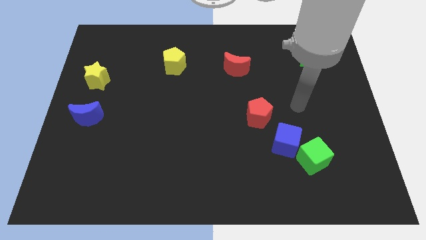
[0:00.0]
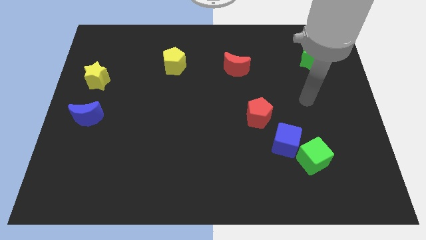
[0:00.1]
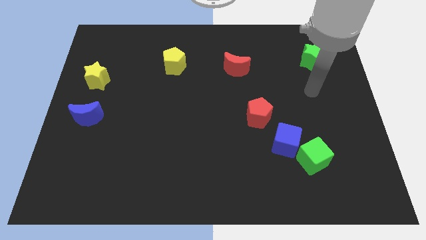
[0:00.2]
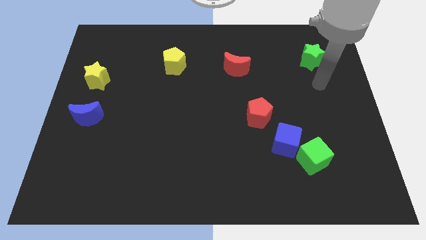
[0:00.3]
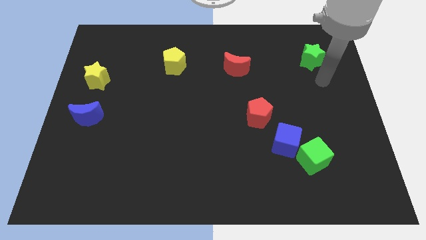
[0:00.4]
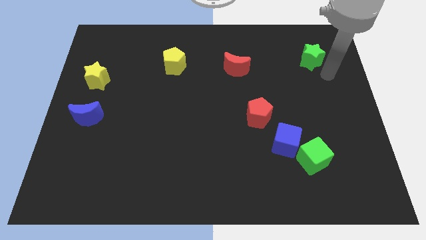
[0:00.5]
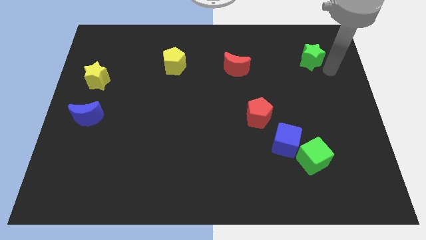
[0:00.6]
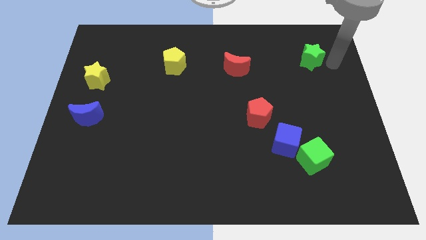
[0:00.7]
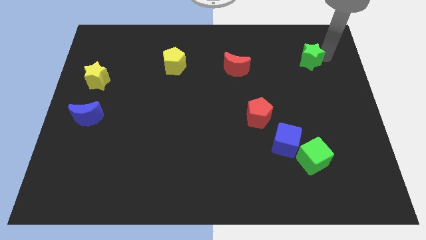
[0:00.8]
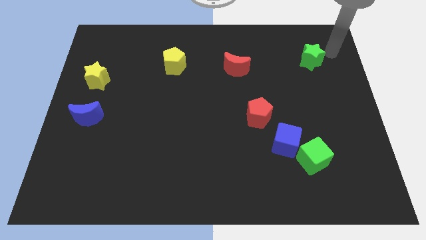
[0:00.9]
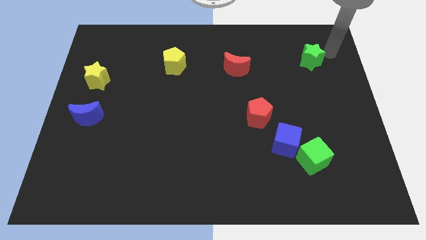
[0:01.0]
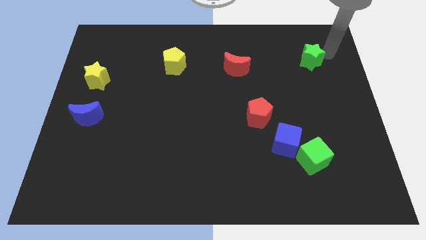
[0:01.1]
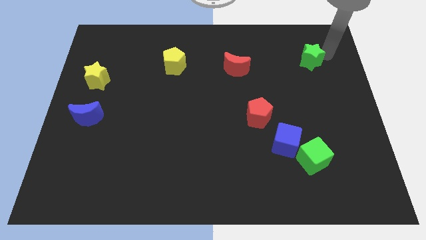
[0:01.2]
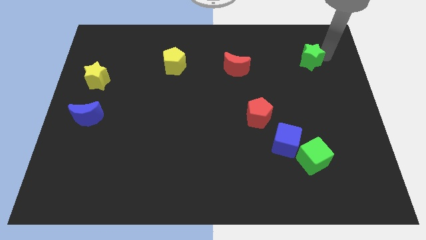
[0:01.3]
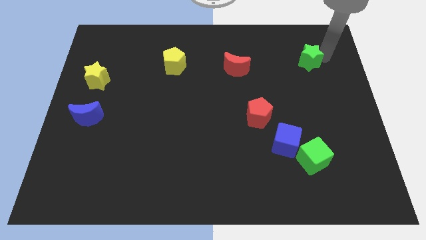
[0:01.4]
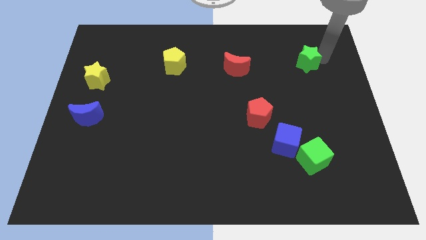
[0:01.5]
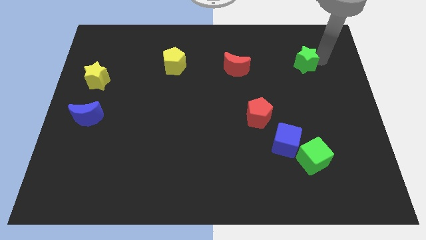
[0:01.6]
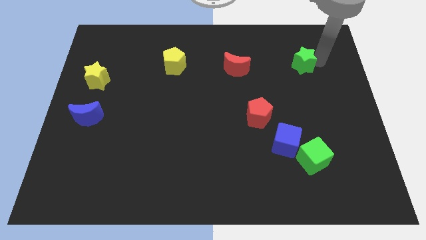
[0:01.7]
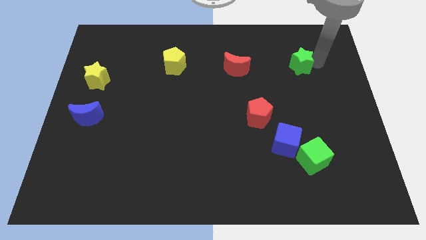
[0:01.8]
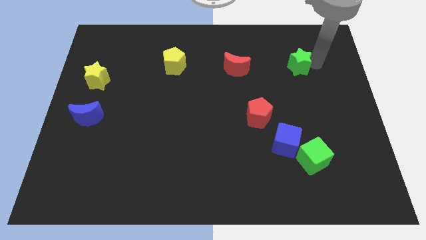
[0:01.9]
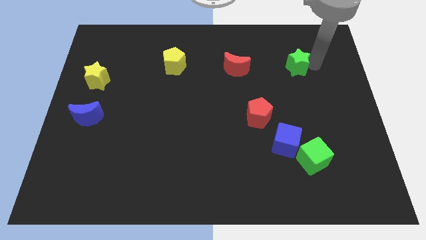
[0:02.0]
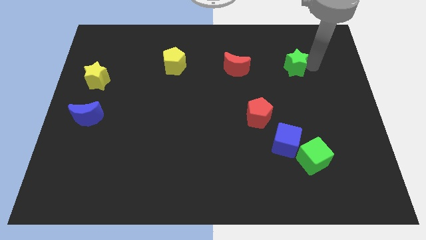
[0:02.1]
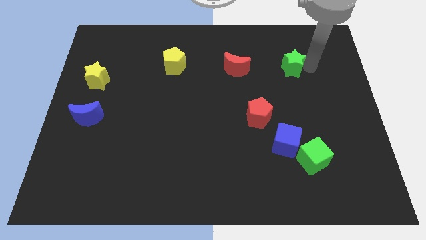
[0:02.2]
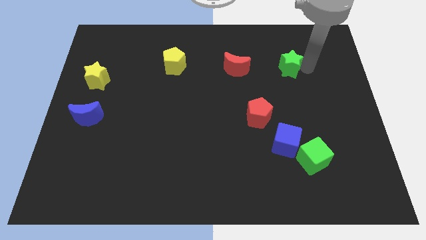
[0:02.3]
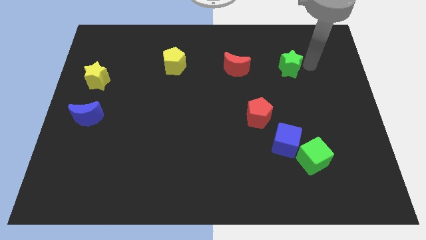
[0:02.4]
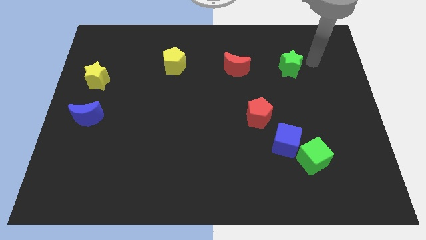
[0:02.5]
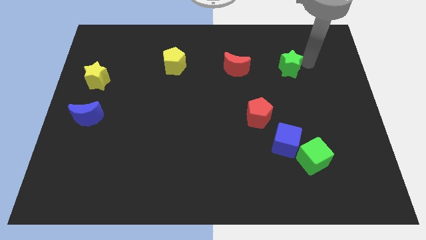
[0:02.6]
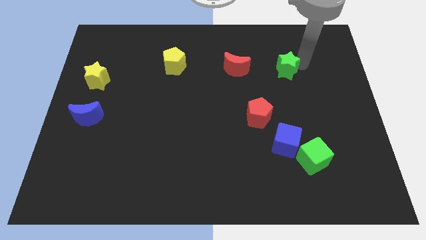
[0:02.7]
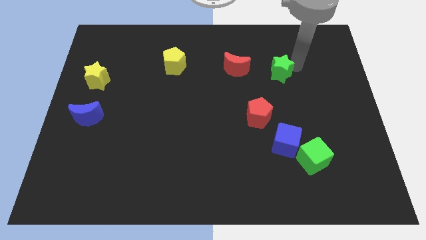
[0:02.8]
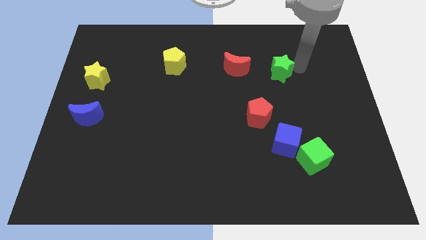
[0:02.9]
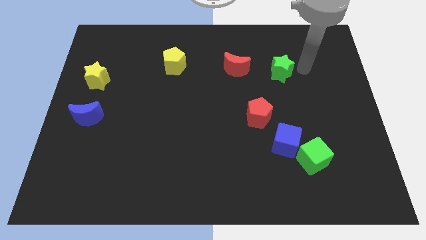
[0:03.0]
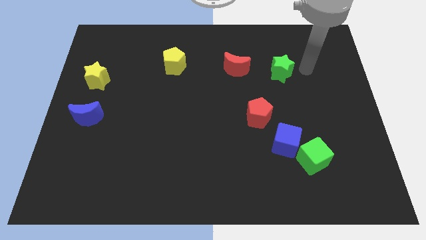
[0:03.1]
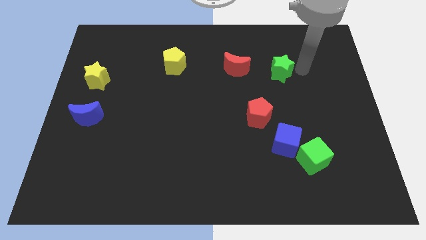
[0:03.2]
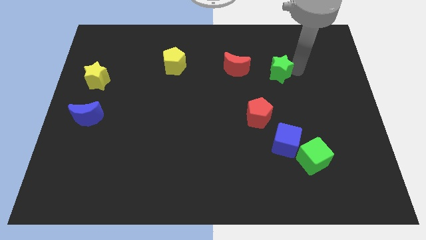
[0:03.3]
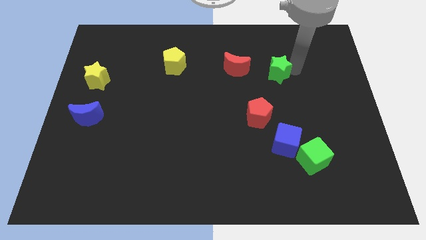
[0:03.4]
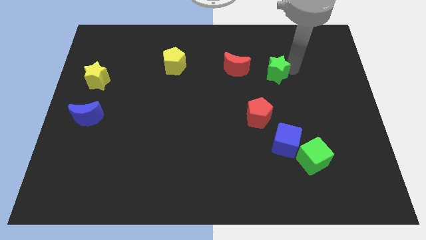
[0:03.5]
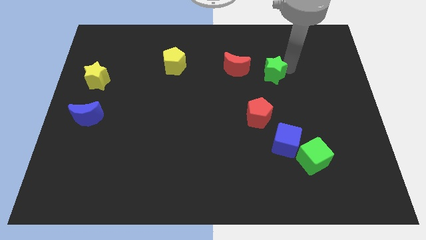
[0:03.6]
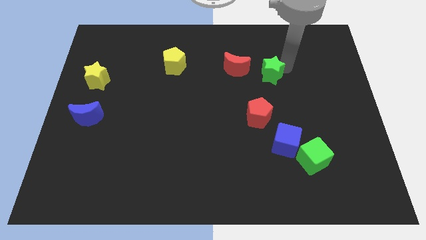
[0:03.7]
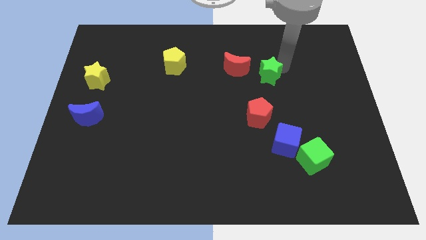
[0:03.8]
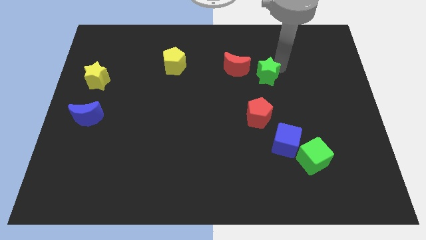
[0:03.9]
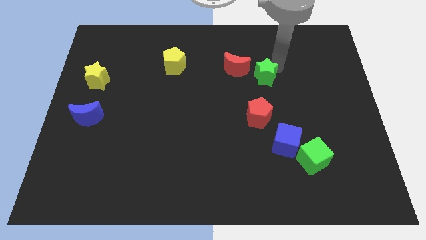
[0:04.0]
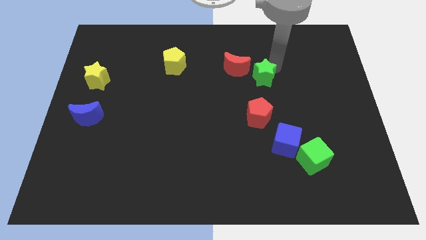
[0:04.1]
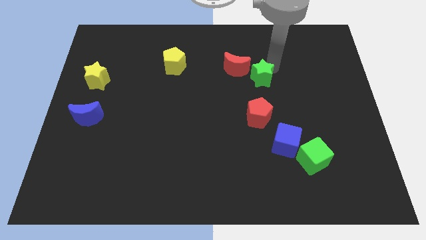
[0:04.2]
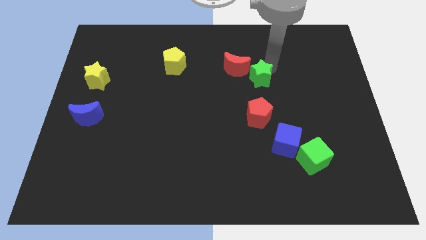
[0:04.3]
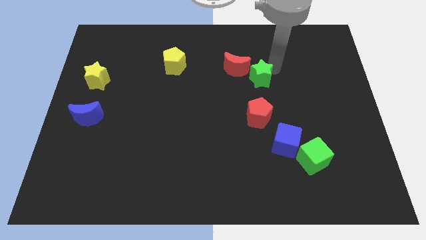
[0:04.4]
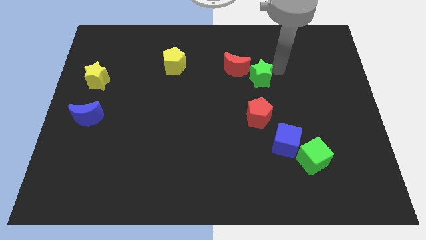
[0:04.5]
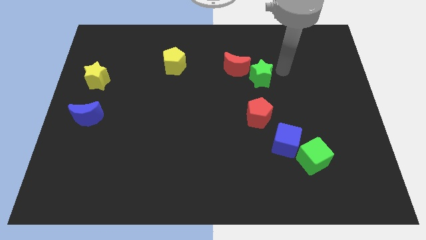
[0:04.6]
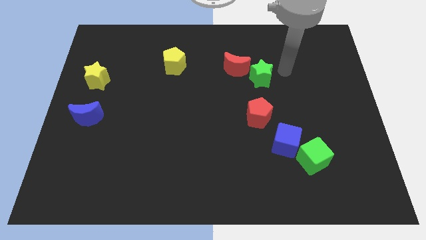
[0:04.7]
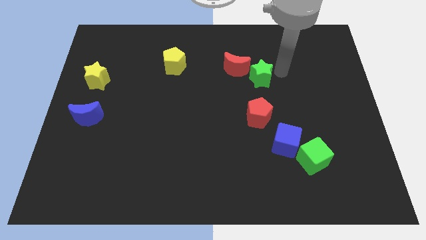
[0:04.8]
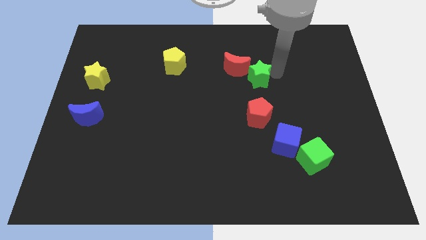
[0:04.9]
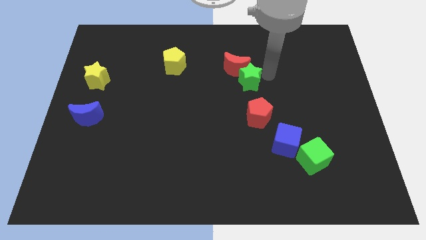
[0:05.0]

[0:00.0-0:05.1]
slide the green star to the center of the board
